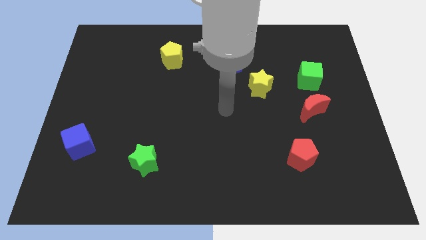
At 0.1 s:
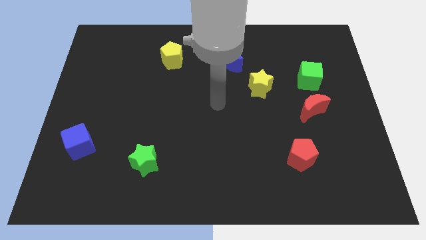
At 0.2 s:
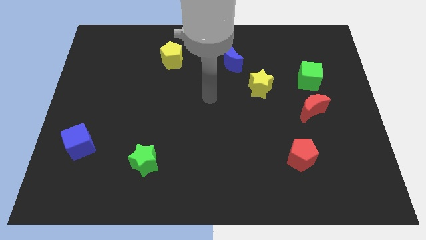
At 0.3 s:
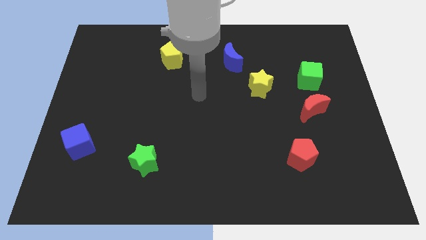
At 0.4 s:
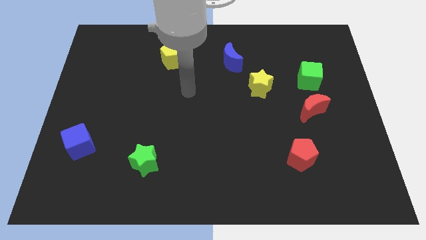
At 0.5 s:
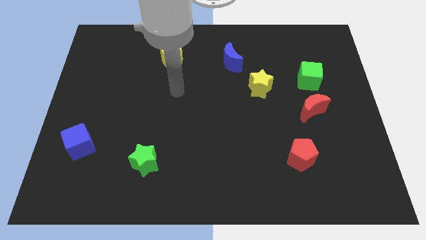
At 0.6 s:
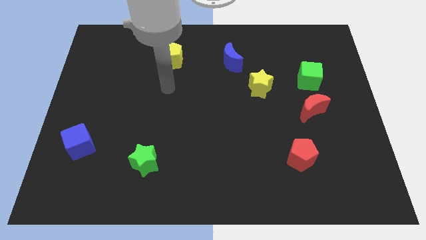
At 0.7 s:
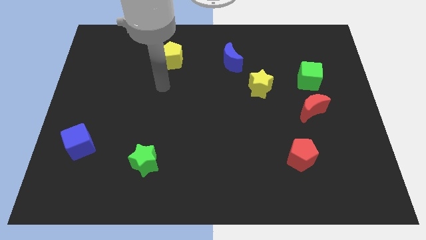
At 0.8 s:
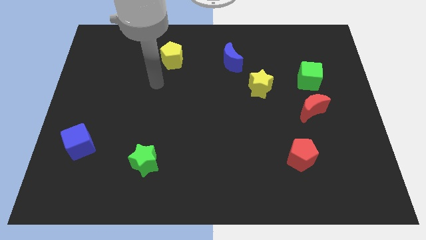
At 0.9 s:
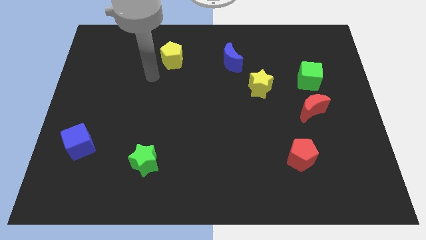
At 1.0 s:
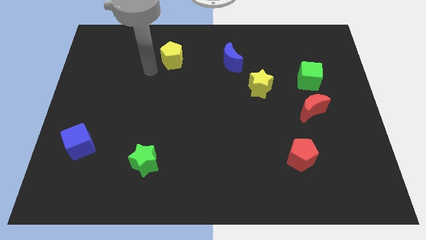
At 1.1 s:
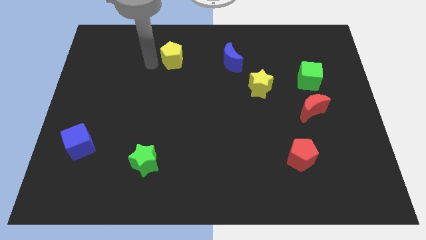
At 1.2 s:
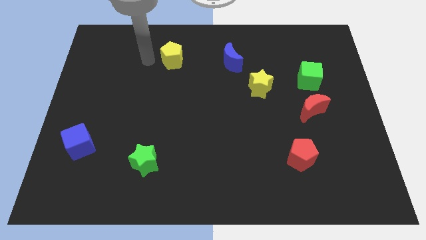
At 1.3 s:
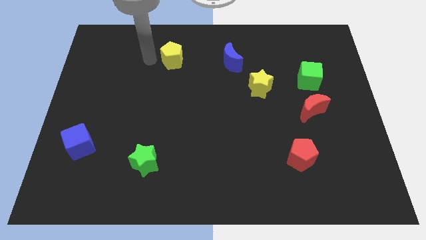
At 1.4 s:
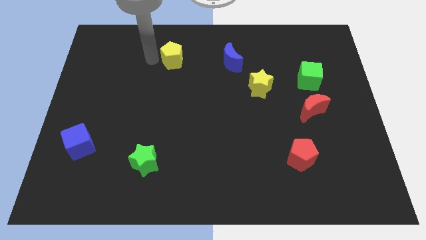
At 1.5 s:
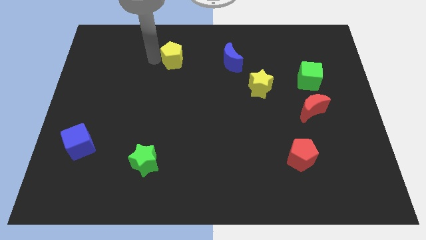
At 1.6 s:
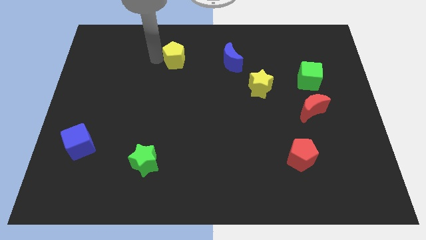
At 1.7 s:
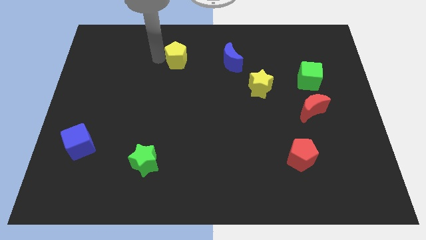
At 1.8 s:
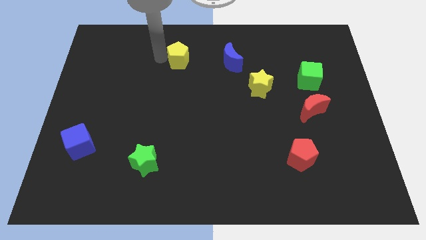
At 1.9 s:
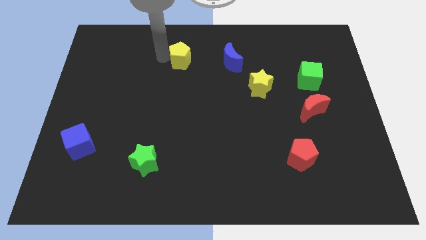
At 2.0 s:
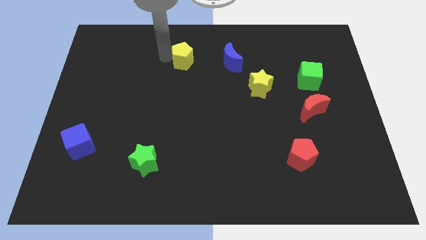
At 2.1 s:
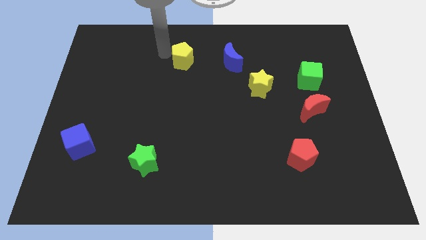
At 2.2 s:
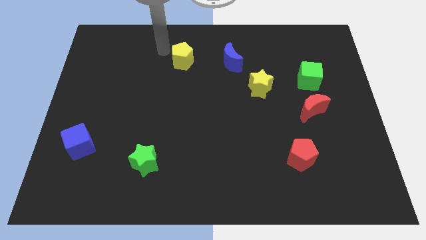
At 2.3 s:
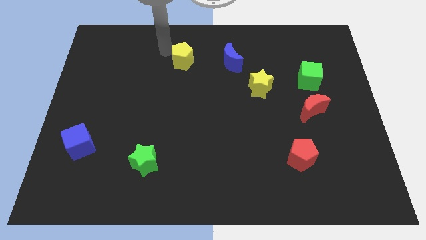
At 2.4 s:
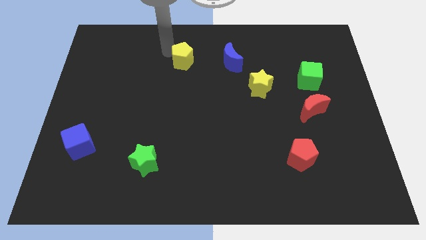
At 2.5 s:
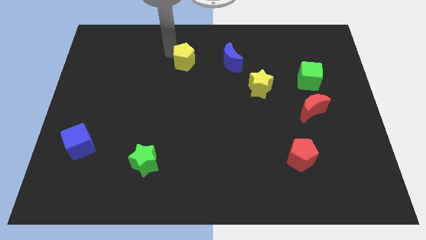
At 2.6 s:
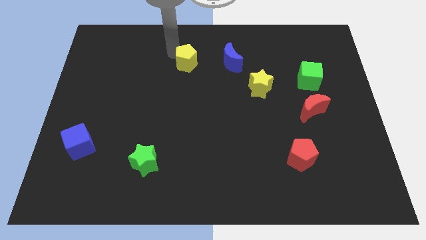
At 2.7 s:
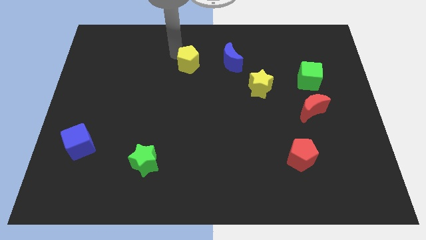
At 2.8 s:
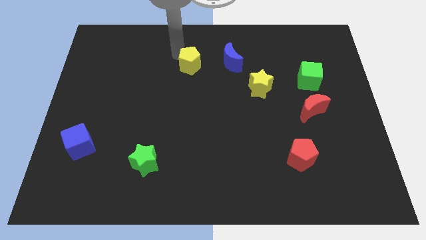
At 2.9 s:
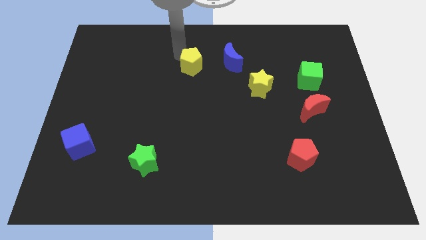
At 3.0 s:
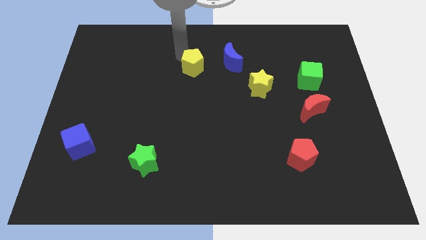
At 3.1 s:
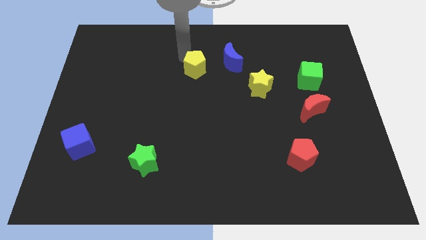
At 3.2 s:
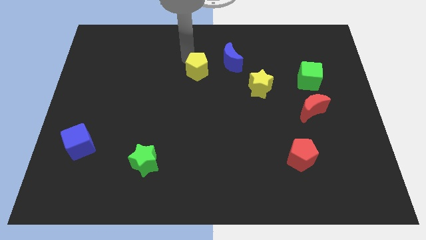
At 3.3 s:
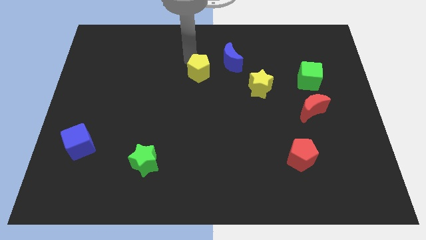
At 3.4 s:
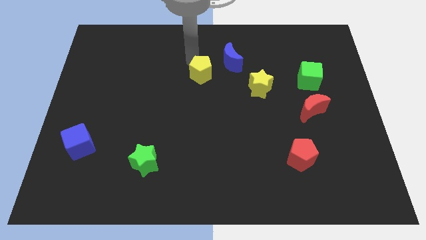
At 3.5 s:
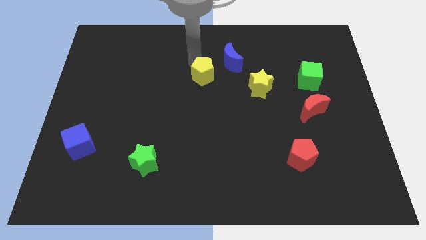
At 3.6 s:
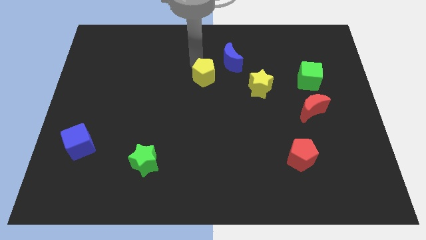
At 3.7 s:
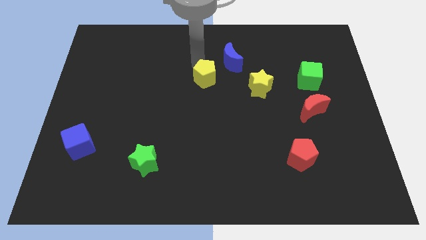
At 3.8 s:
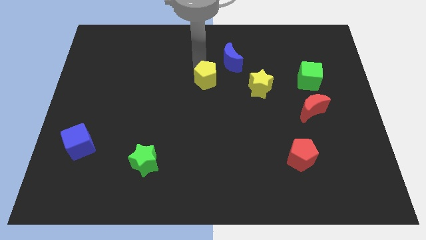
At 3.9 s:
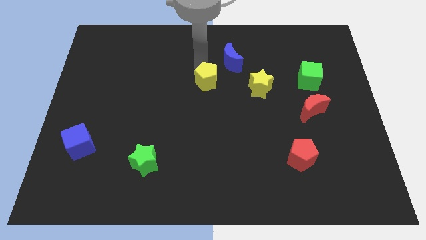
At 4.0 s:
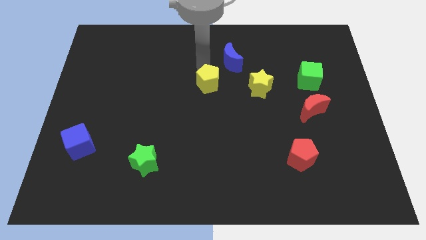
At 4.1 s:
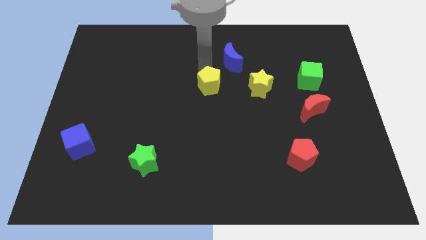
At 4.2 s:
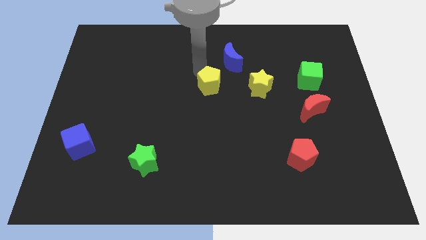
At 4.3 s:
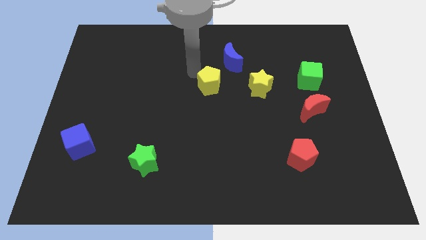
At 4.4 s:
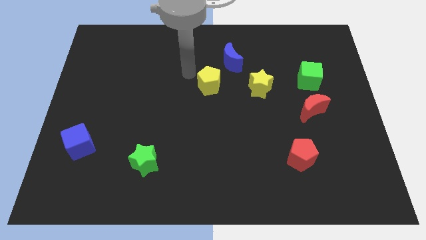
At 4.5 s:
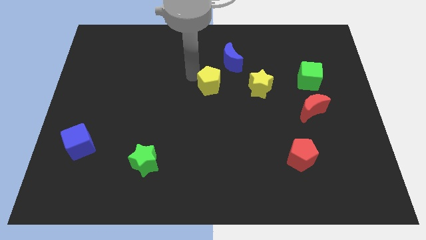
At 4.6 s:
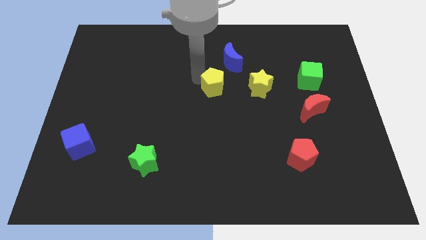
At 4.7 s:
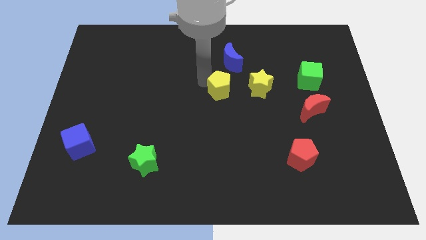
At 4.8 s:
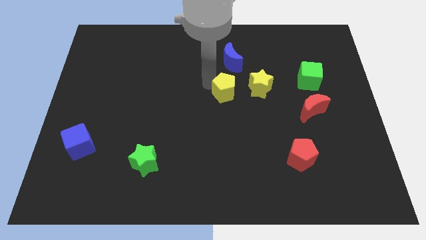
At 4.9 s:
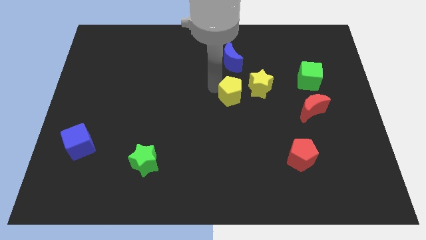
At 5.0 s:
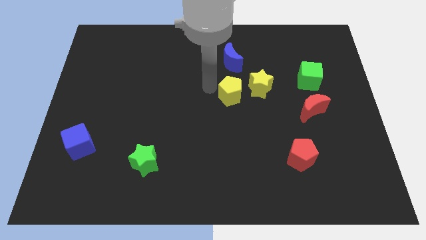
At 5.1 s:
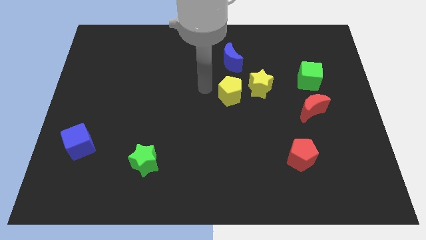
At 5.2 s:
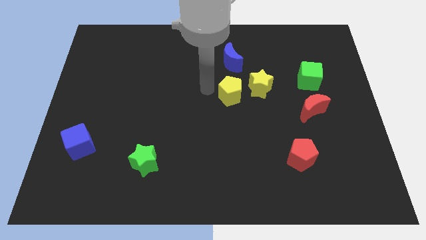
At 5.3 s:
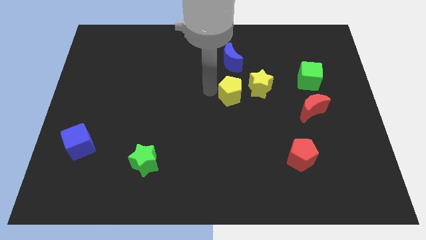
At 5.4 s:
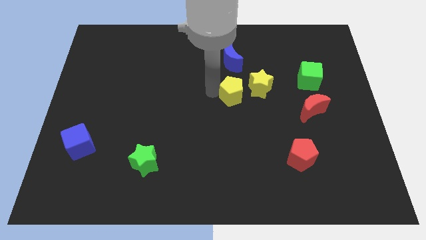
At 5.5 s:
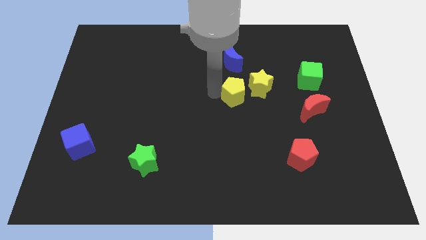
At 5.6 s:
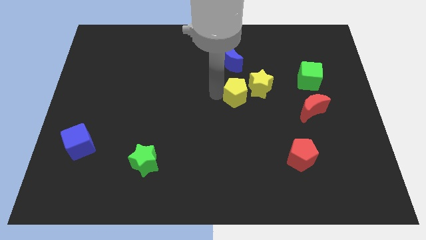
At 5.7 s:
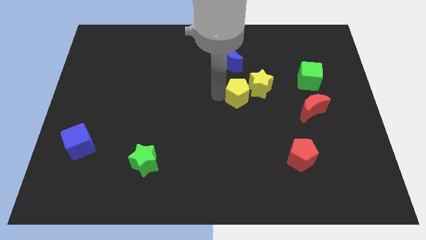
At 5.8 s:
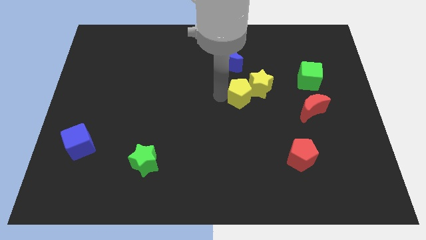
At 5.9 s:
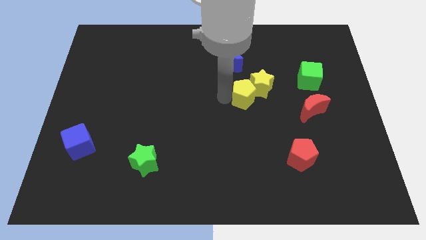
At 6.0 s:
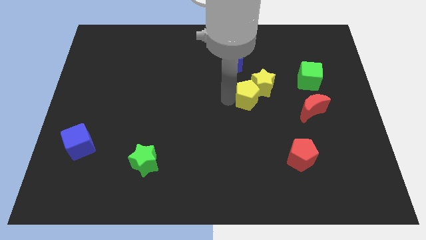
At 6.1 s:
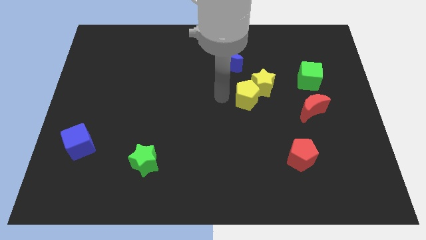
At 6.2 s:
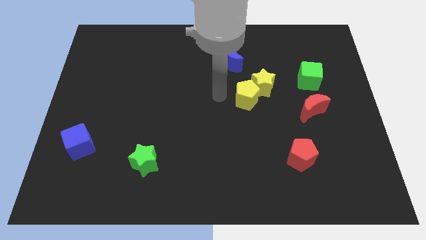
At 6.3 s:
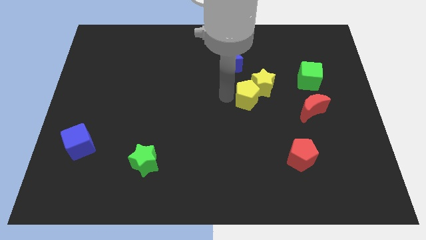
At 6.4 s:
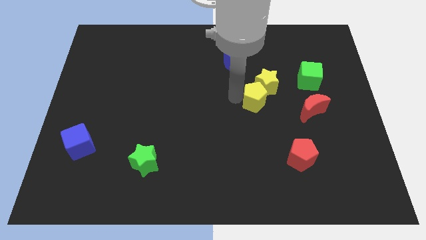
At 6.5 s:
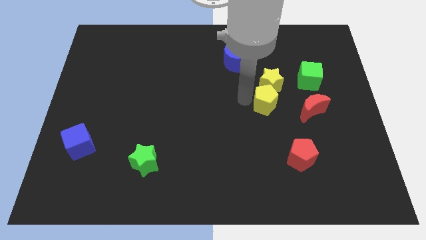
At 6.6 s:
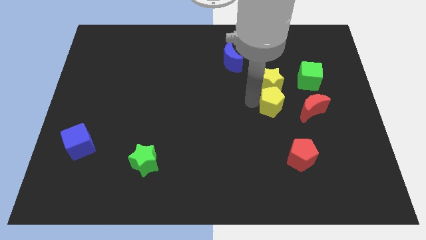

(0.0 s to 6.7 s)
push the yellow pentagon to the bottom right of the yellow star
